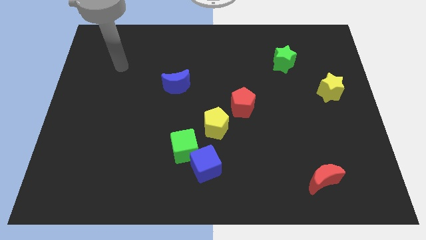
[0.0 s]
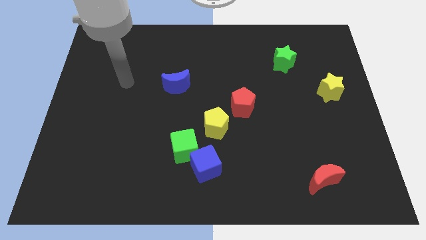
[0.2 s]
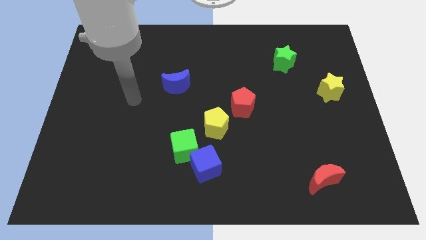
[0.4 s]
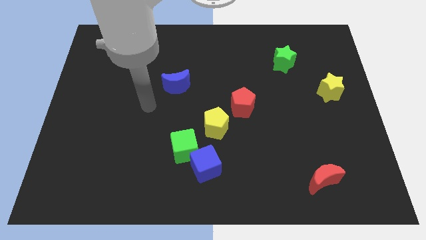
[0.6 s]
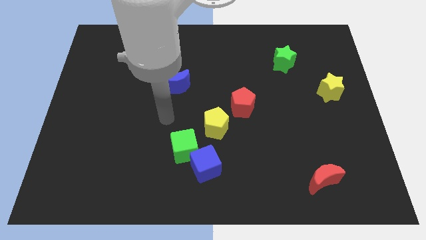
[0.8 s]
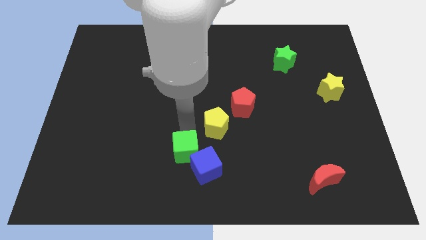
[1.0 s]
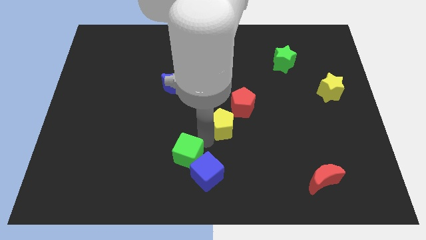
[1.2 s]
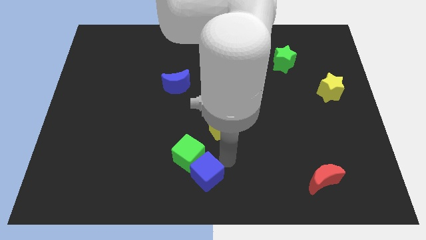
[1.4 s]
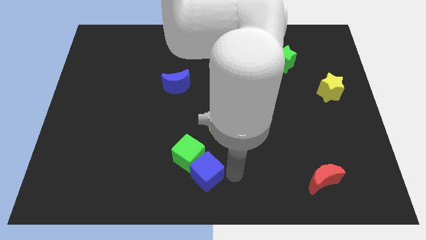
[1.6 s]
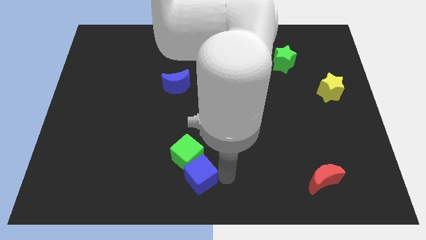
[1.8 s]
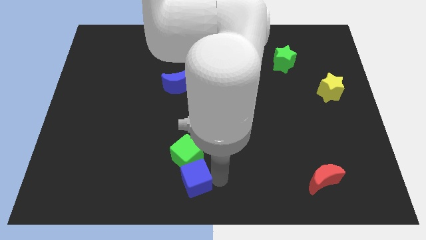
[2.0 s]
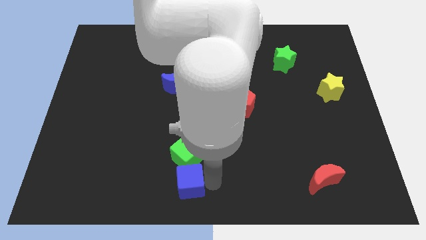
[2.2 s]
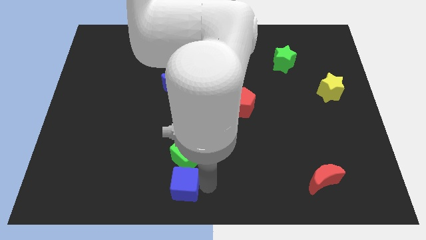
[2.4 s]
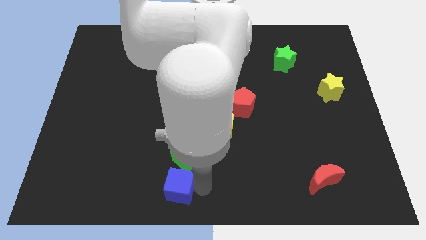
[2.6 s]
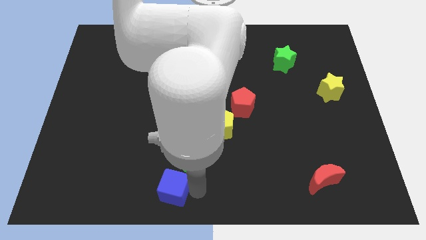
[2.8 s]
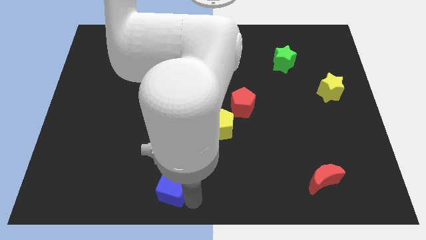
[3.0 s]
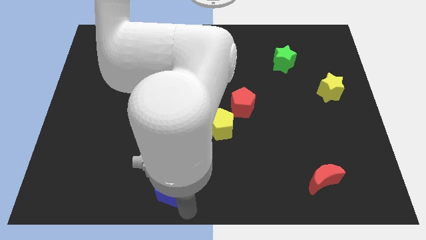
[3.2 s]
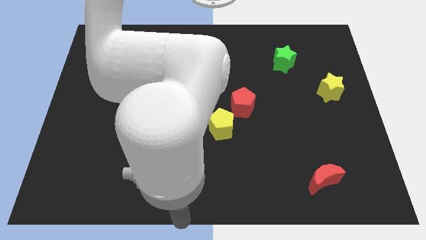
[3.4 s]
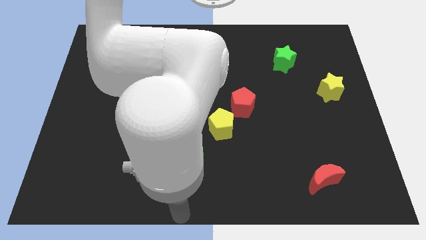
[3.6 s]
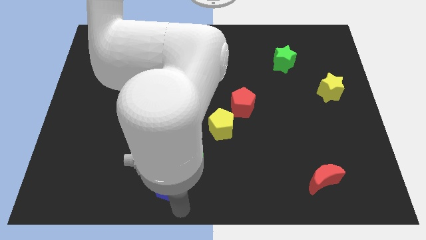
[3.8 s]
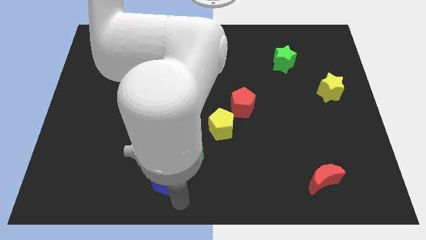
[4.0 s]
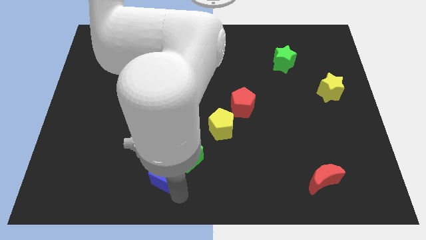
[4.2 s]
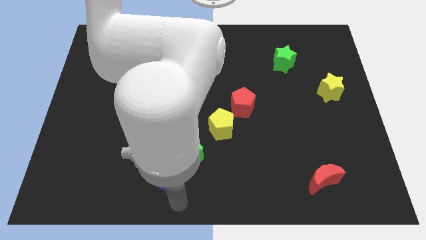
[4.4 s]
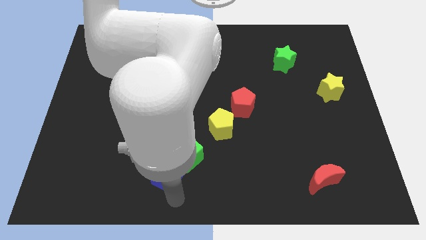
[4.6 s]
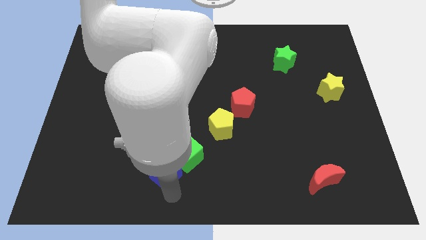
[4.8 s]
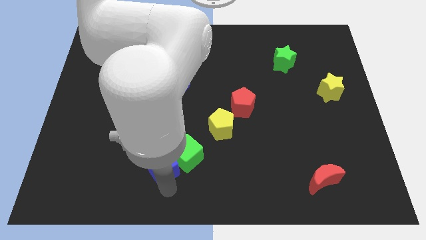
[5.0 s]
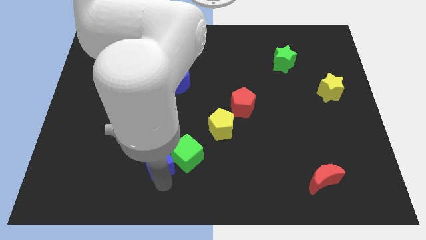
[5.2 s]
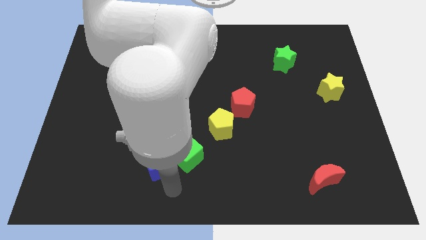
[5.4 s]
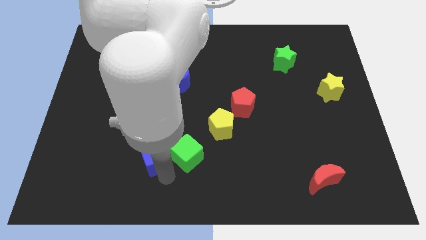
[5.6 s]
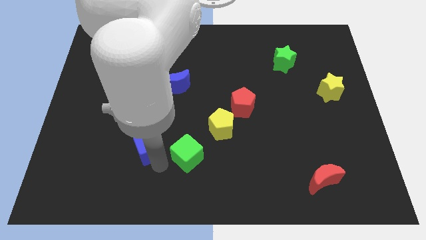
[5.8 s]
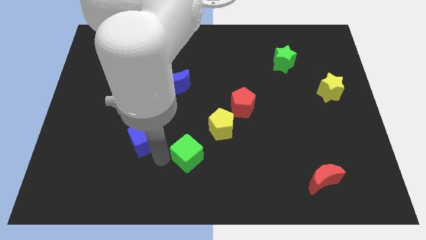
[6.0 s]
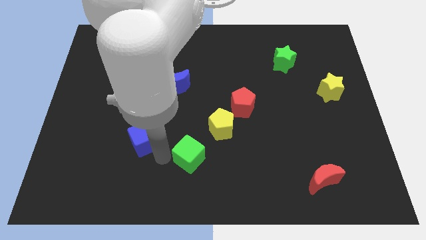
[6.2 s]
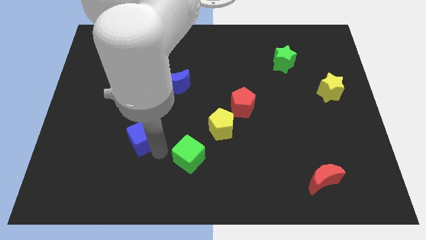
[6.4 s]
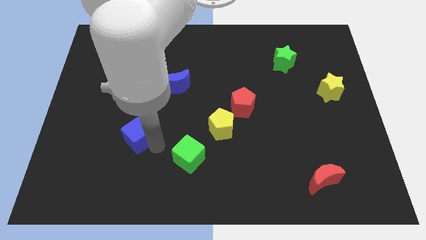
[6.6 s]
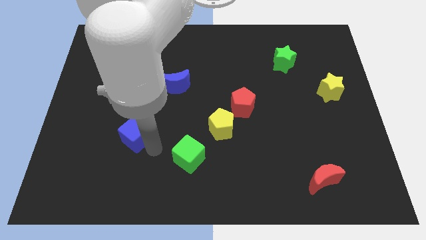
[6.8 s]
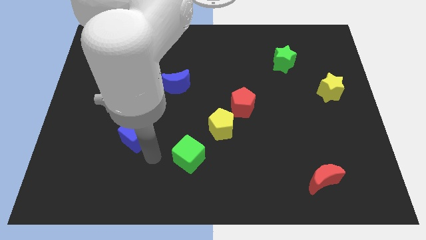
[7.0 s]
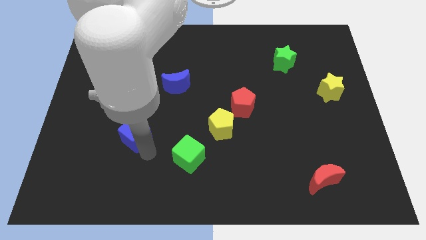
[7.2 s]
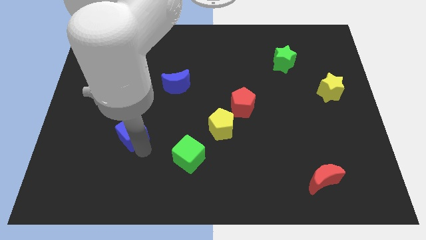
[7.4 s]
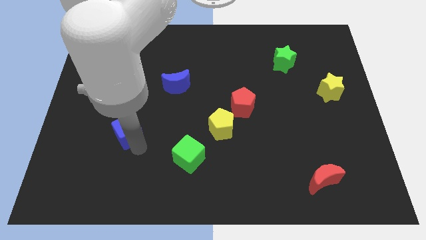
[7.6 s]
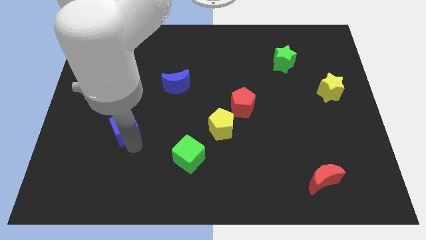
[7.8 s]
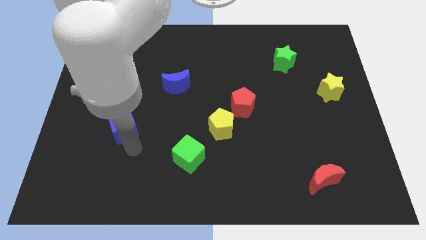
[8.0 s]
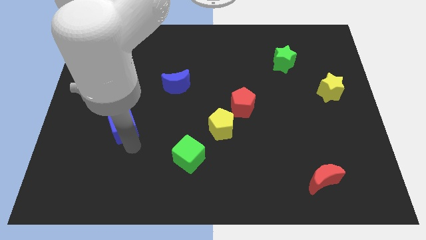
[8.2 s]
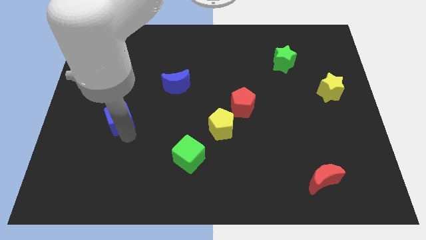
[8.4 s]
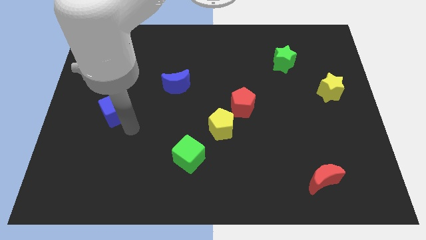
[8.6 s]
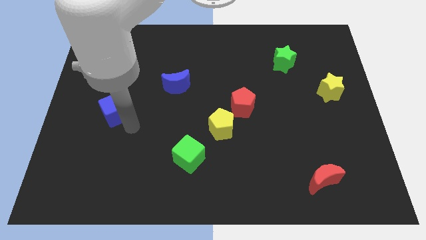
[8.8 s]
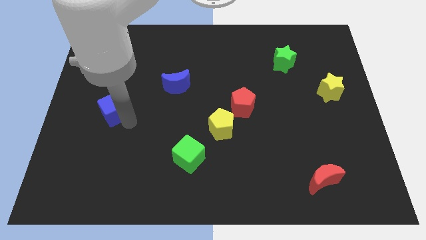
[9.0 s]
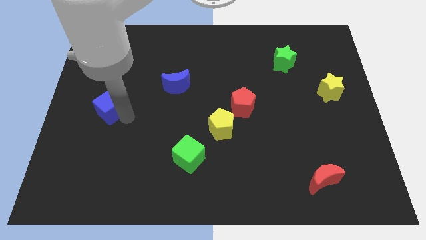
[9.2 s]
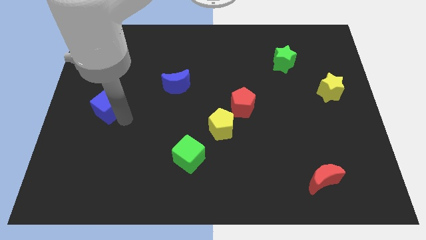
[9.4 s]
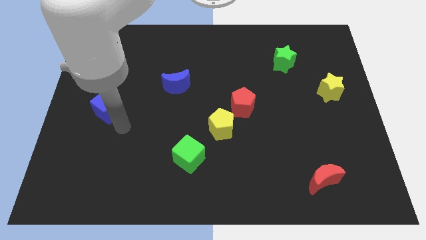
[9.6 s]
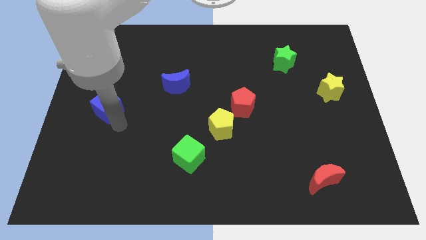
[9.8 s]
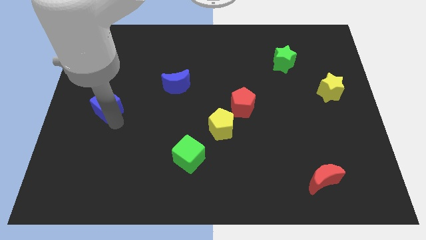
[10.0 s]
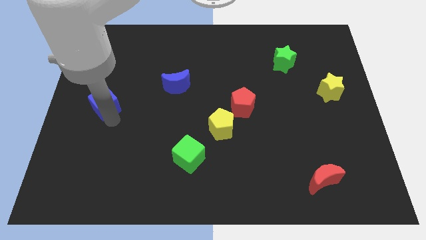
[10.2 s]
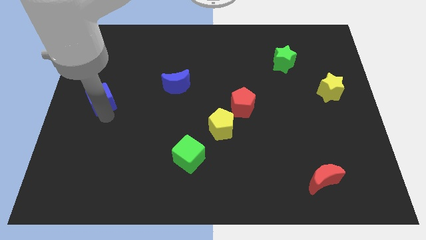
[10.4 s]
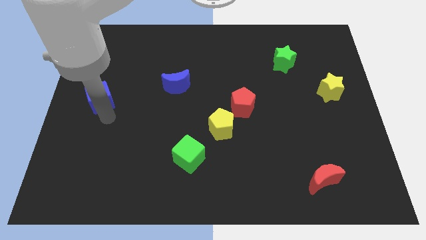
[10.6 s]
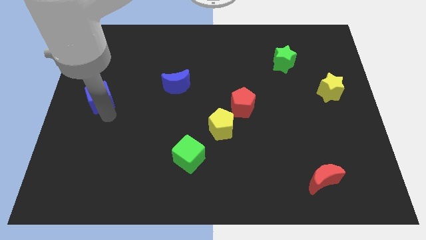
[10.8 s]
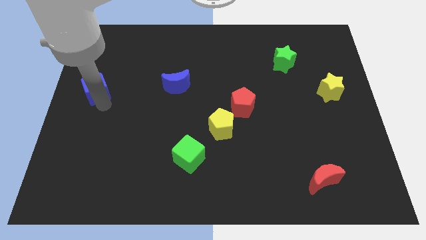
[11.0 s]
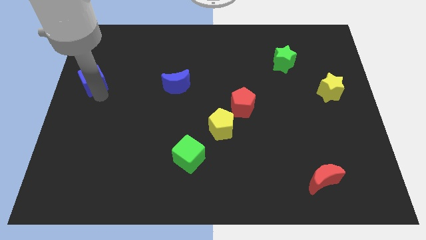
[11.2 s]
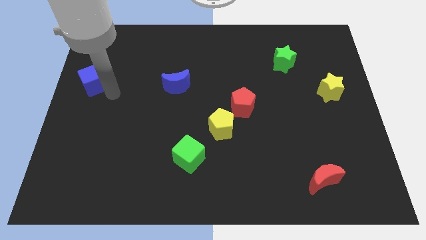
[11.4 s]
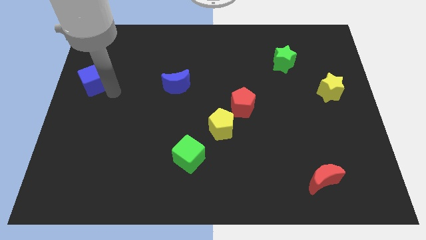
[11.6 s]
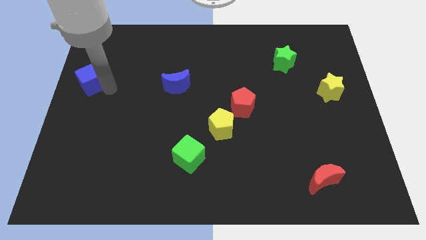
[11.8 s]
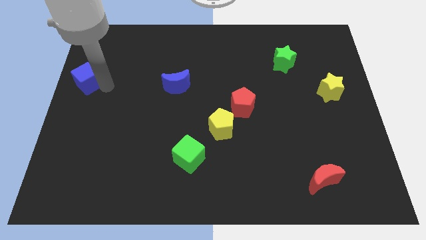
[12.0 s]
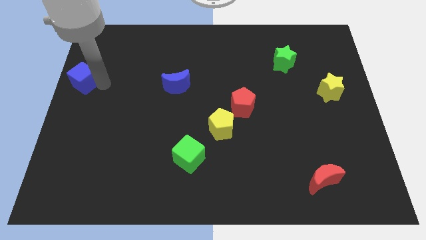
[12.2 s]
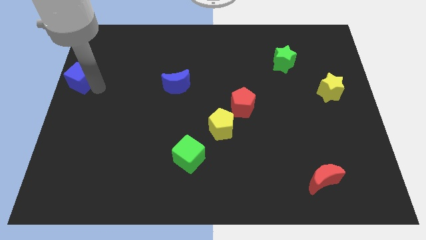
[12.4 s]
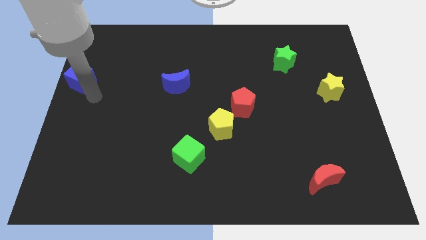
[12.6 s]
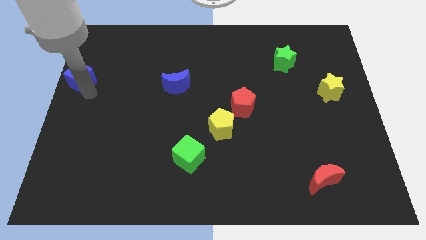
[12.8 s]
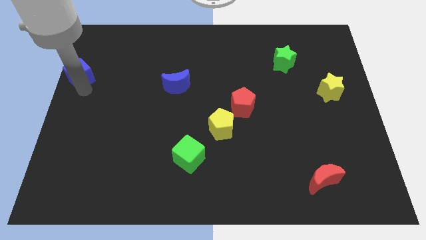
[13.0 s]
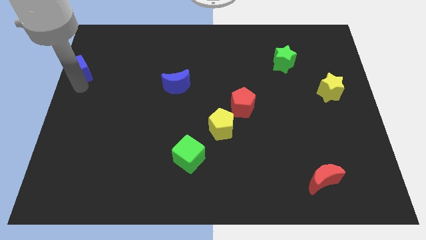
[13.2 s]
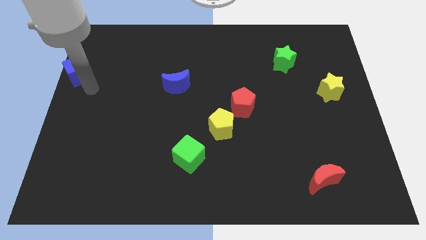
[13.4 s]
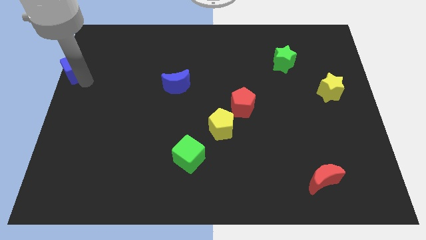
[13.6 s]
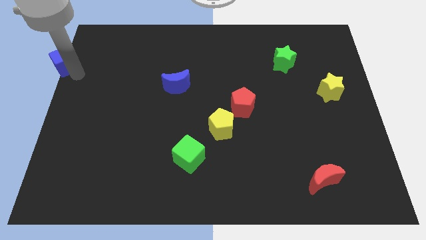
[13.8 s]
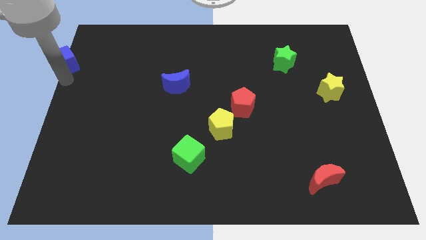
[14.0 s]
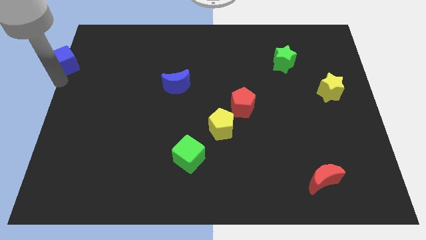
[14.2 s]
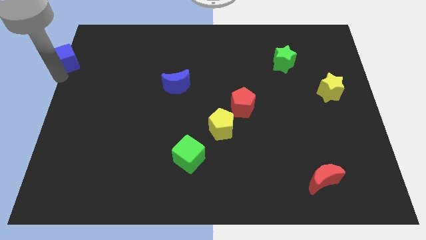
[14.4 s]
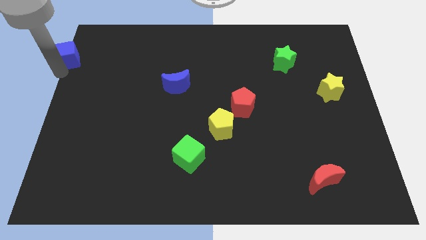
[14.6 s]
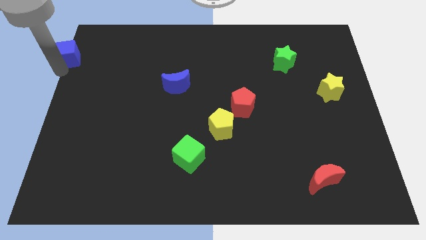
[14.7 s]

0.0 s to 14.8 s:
move the blue cube to the top left corner
